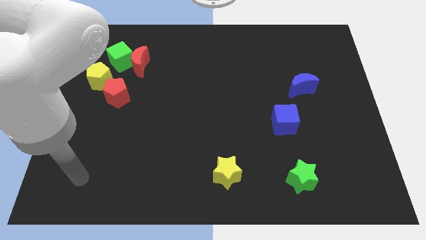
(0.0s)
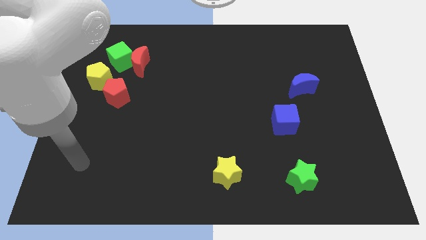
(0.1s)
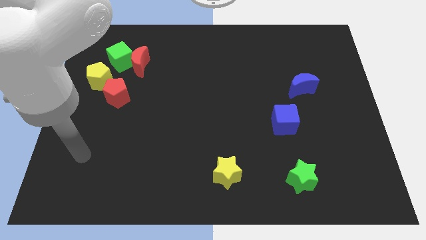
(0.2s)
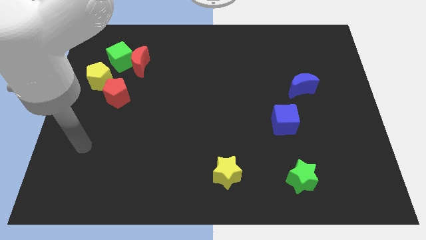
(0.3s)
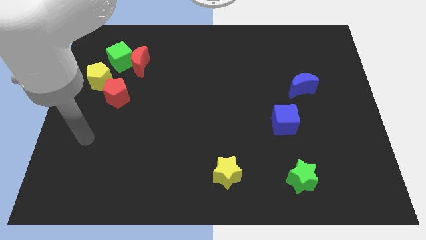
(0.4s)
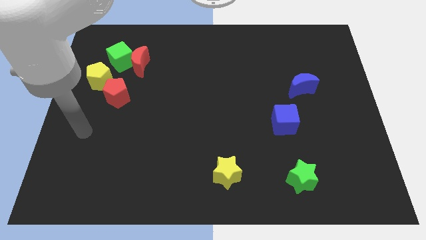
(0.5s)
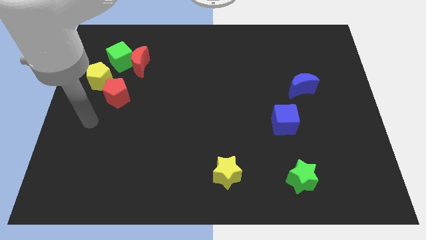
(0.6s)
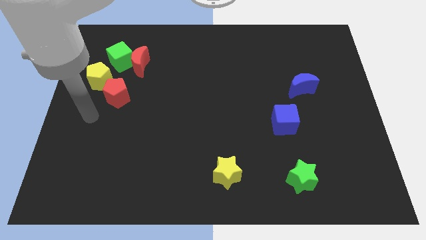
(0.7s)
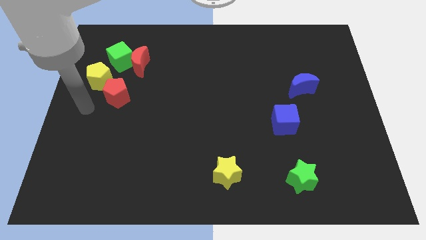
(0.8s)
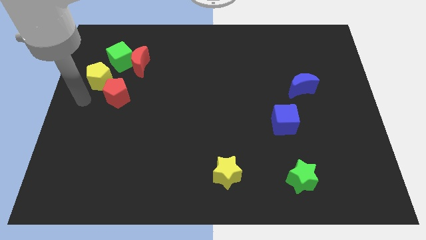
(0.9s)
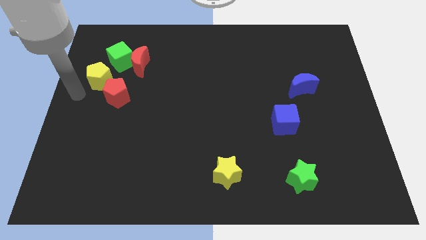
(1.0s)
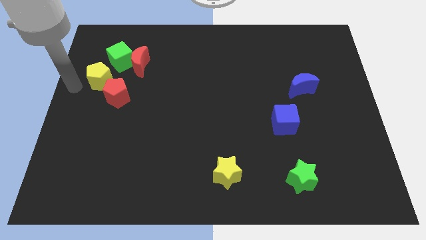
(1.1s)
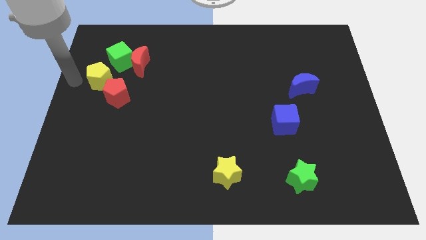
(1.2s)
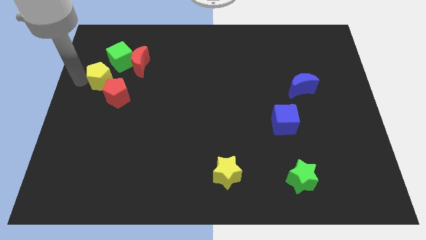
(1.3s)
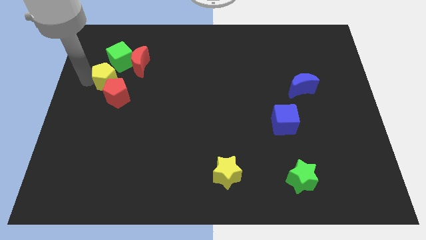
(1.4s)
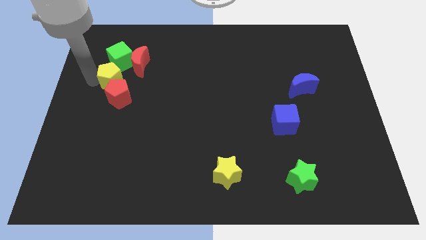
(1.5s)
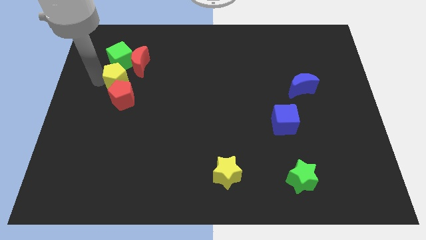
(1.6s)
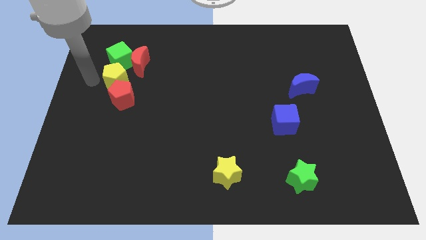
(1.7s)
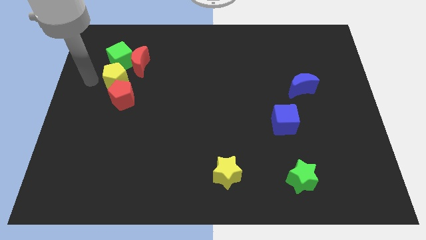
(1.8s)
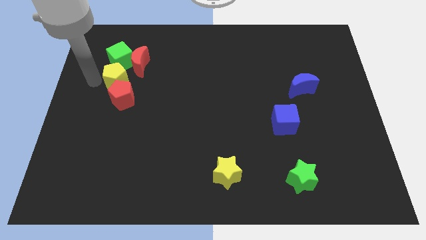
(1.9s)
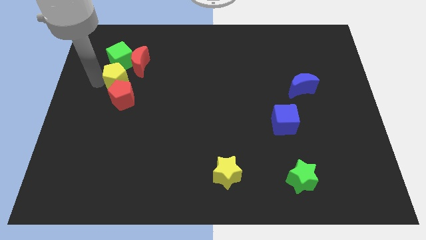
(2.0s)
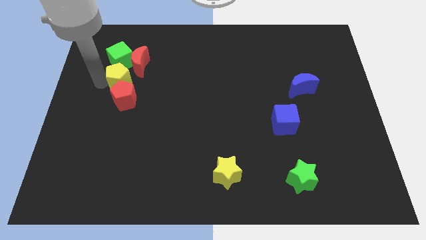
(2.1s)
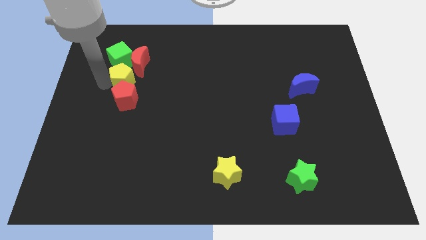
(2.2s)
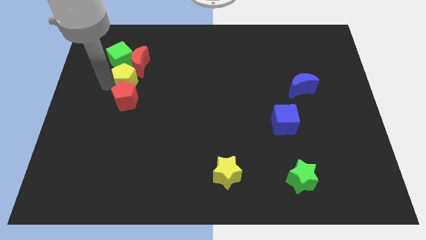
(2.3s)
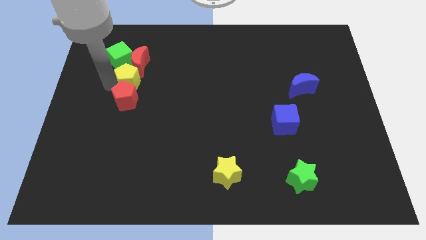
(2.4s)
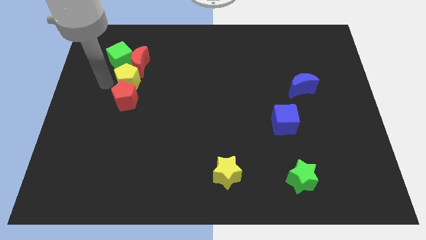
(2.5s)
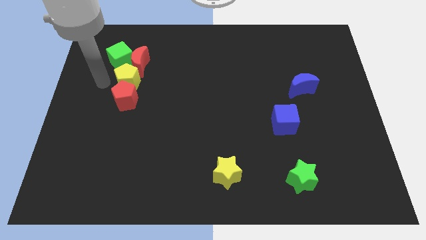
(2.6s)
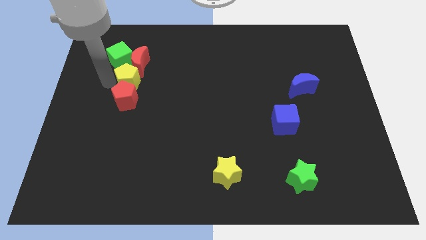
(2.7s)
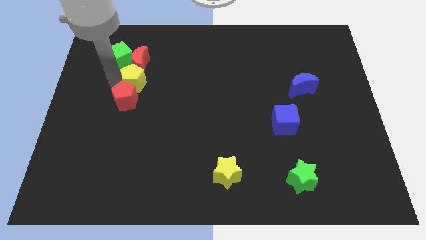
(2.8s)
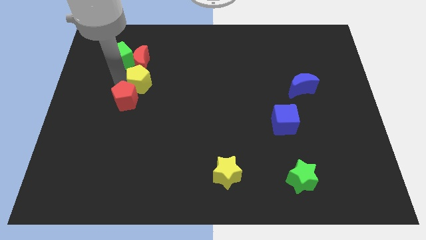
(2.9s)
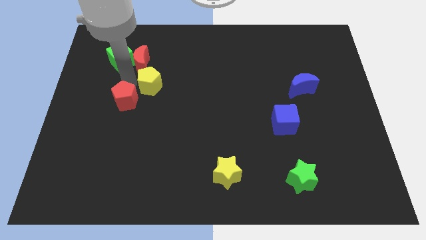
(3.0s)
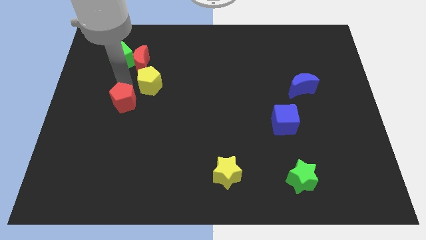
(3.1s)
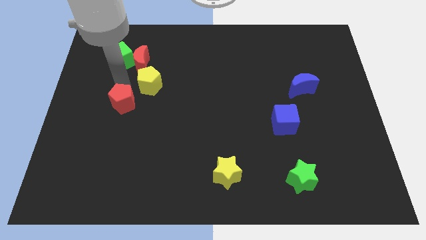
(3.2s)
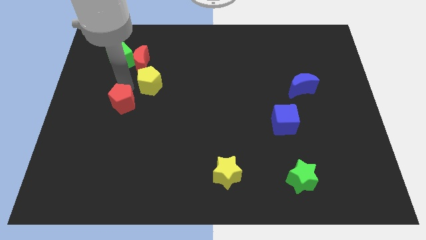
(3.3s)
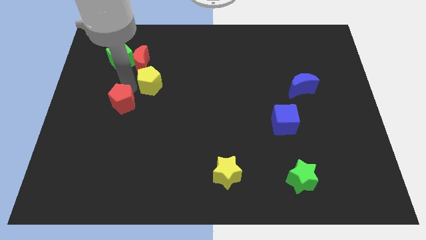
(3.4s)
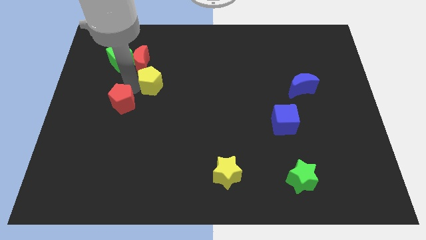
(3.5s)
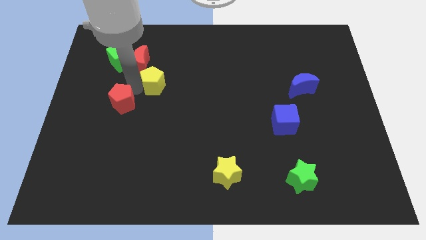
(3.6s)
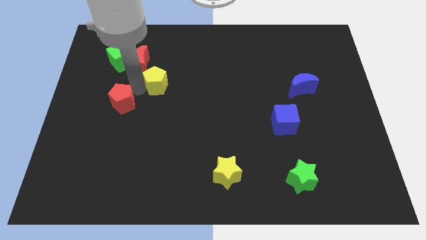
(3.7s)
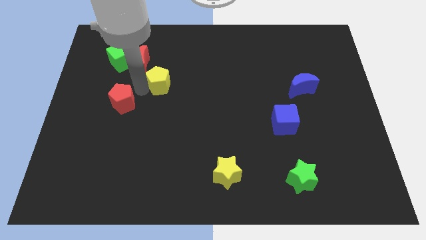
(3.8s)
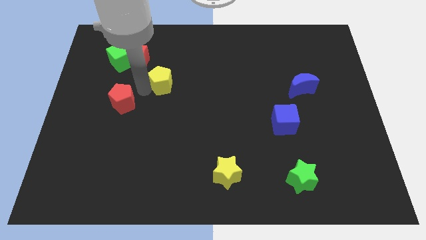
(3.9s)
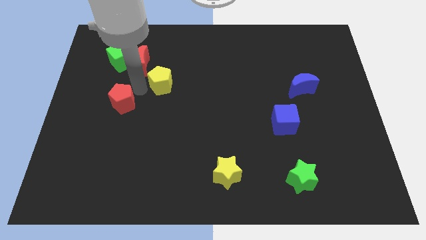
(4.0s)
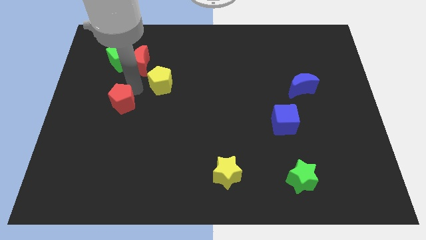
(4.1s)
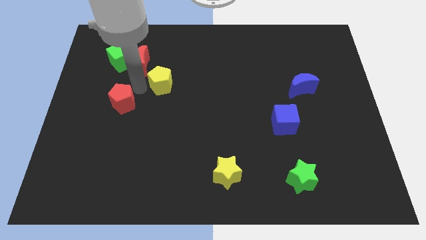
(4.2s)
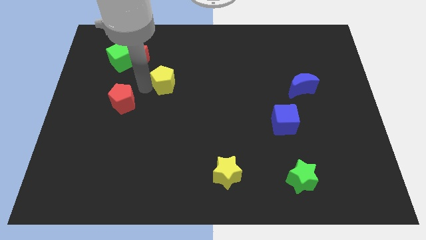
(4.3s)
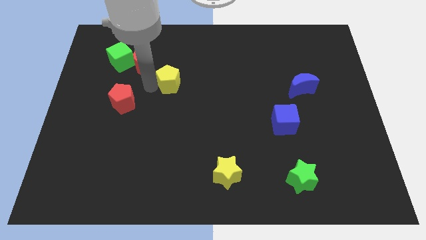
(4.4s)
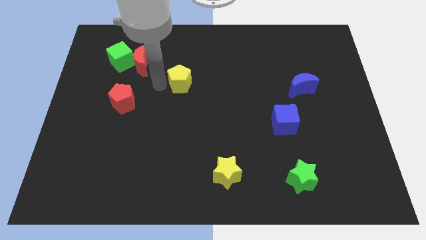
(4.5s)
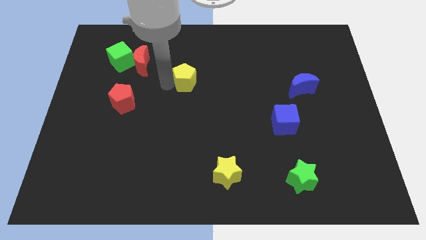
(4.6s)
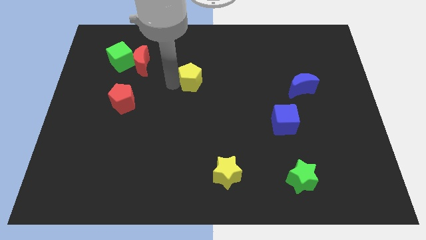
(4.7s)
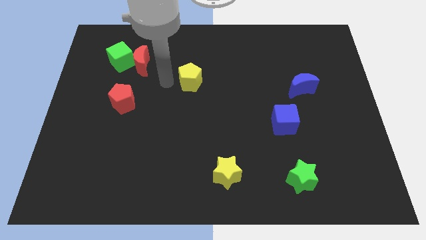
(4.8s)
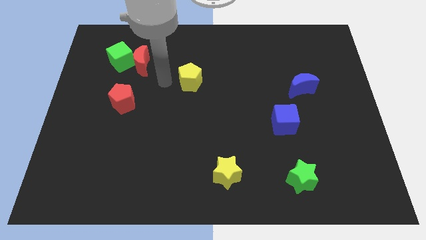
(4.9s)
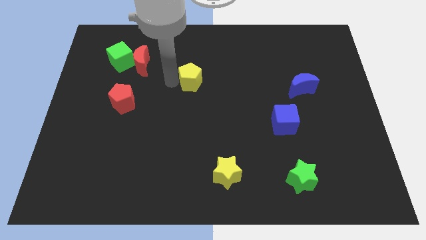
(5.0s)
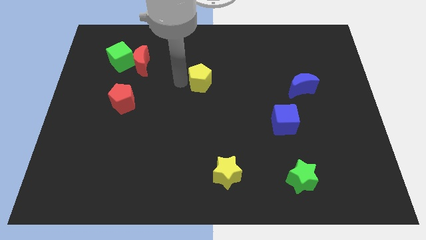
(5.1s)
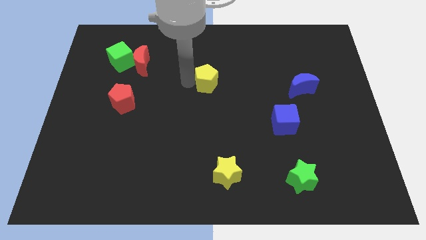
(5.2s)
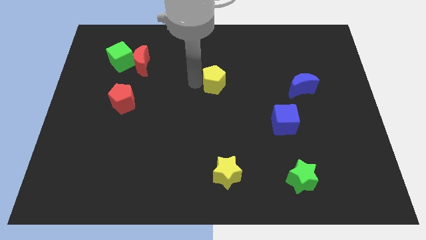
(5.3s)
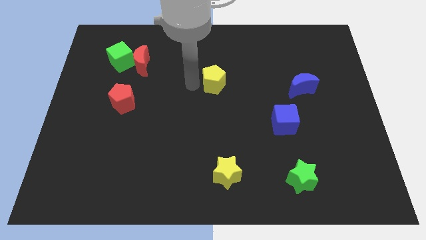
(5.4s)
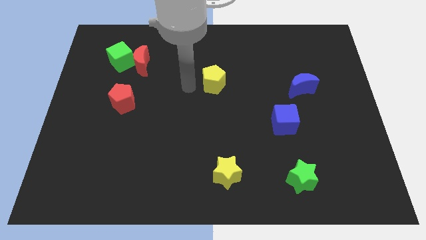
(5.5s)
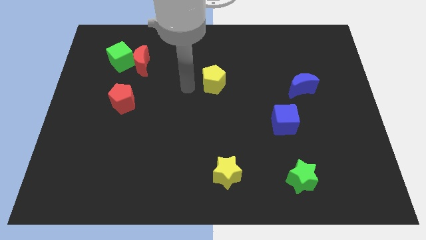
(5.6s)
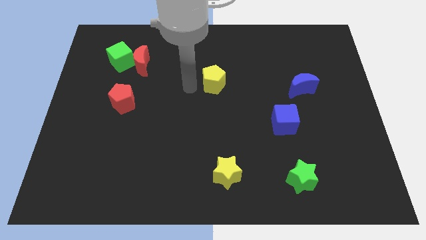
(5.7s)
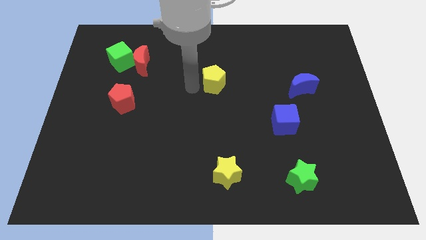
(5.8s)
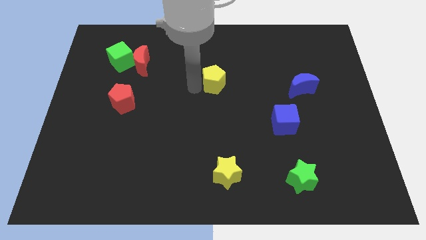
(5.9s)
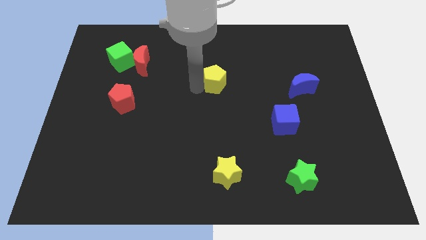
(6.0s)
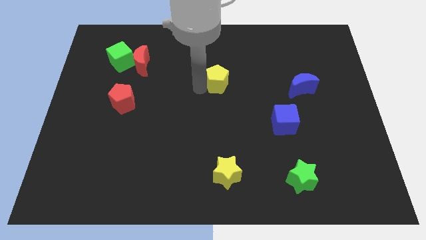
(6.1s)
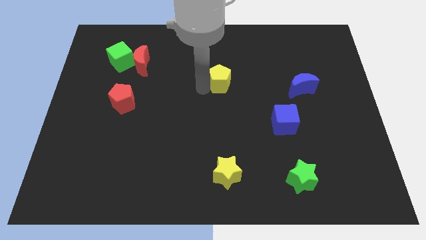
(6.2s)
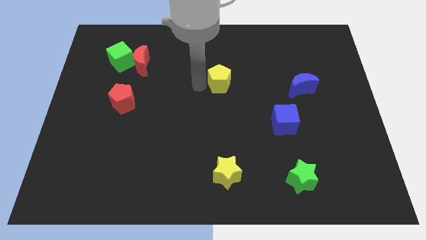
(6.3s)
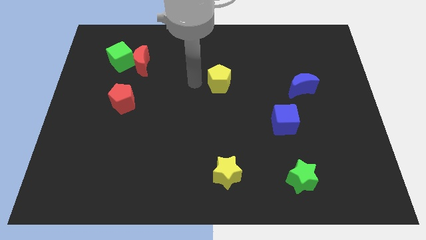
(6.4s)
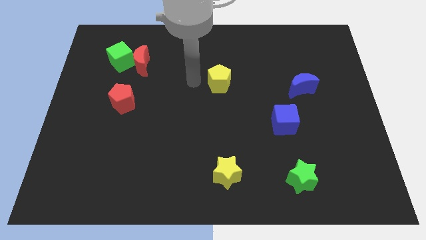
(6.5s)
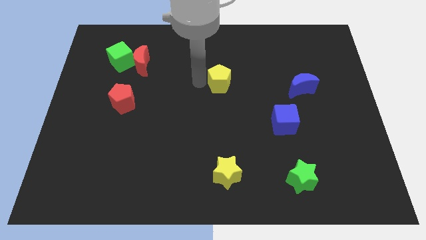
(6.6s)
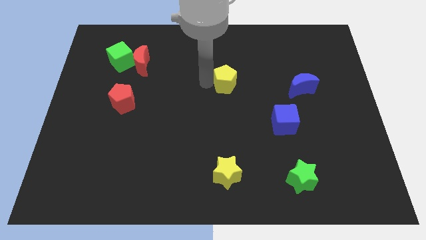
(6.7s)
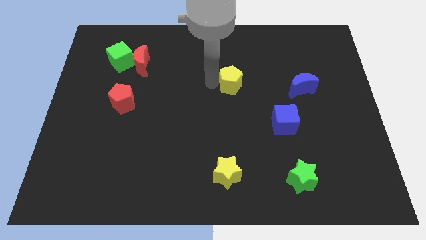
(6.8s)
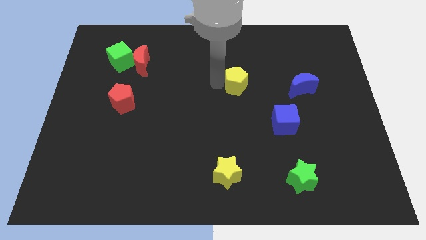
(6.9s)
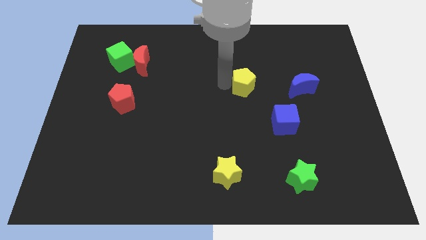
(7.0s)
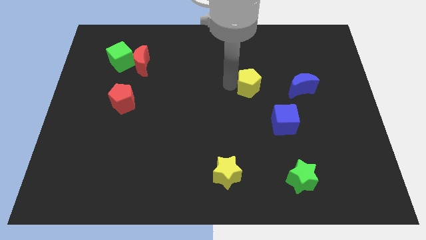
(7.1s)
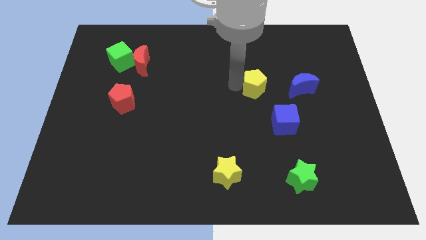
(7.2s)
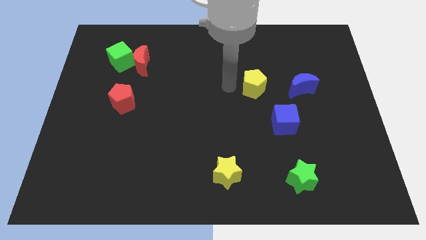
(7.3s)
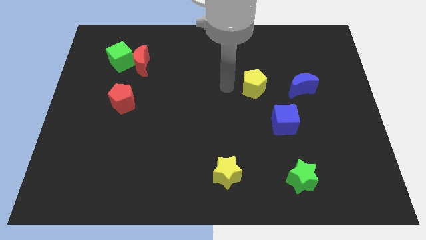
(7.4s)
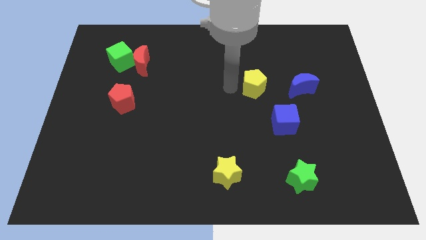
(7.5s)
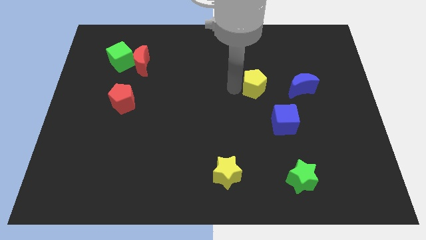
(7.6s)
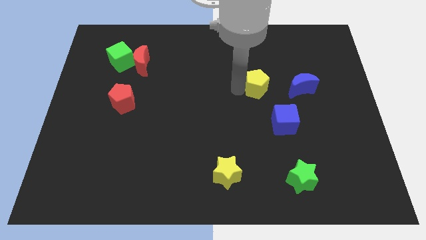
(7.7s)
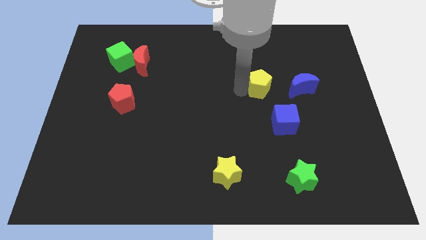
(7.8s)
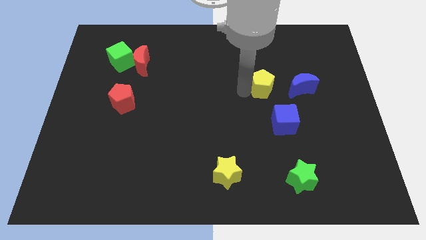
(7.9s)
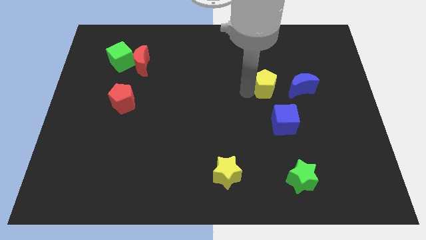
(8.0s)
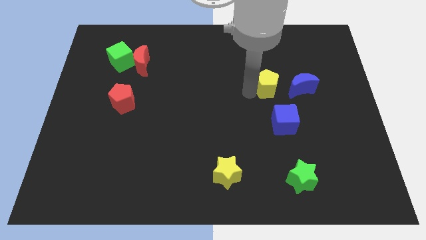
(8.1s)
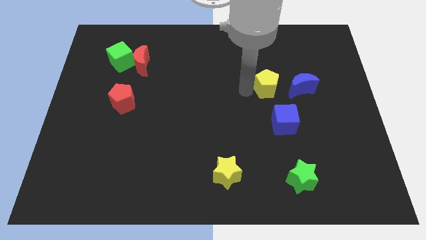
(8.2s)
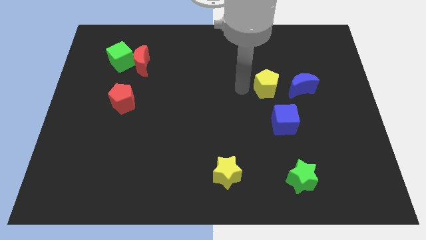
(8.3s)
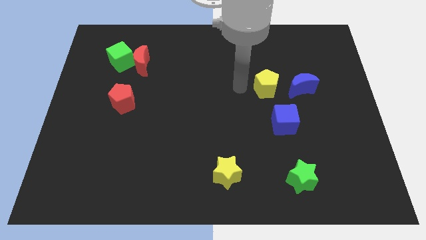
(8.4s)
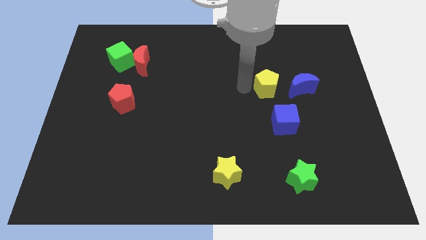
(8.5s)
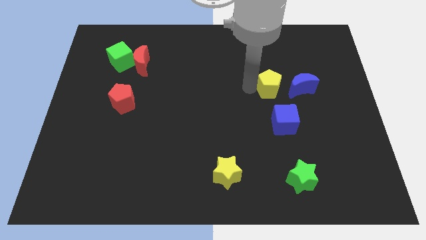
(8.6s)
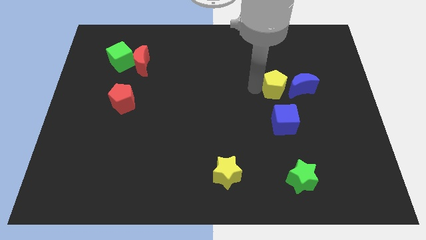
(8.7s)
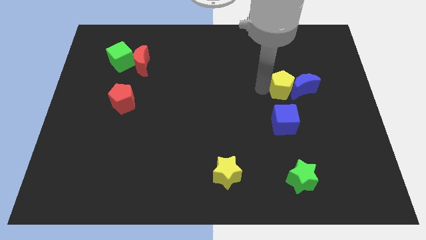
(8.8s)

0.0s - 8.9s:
move the yellow pentagon to the blue moon
